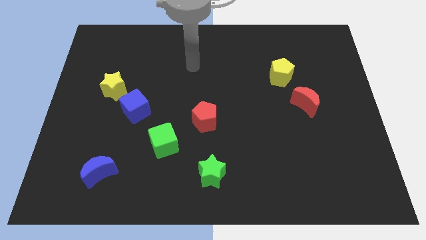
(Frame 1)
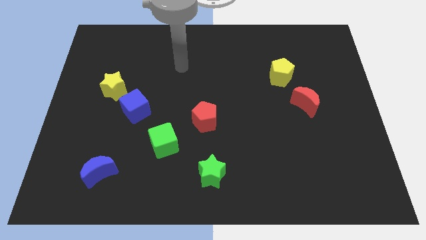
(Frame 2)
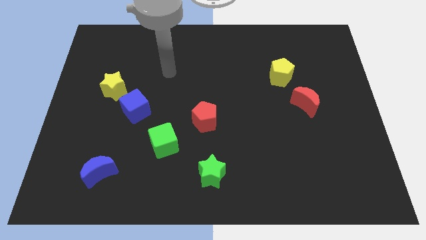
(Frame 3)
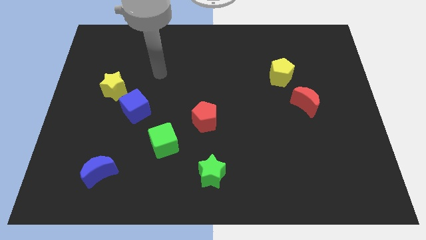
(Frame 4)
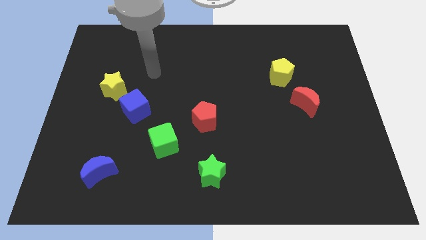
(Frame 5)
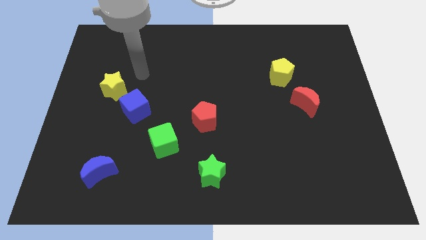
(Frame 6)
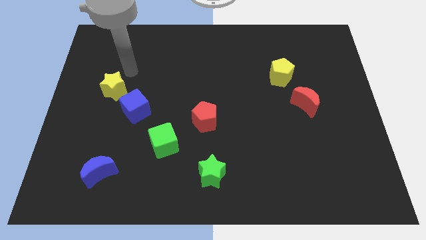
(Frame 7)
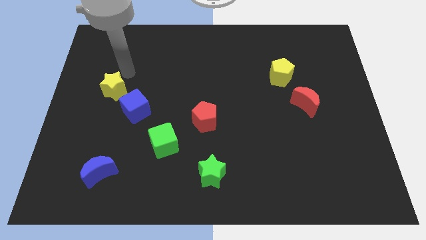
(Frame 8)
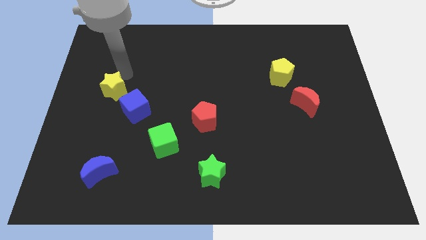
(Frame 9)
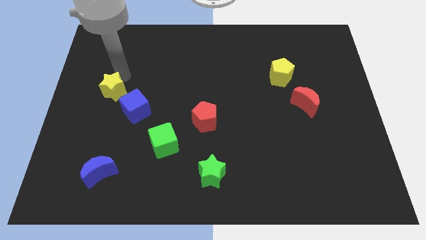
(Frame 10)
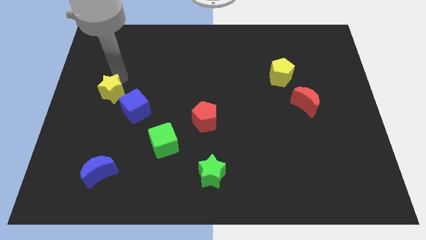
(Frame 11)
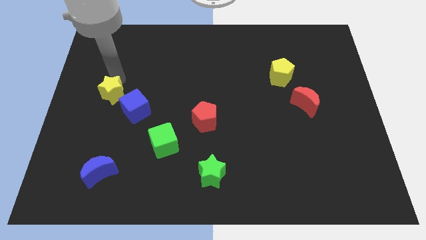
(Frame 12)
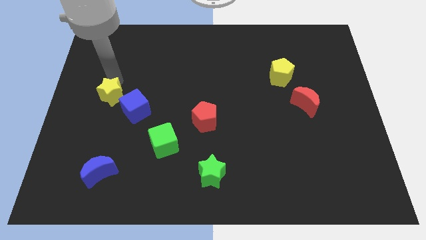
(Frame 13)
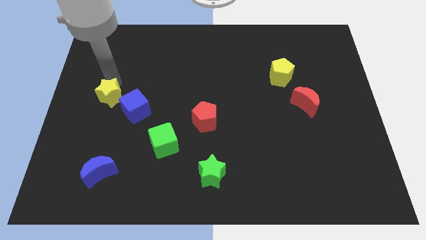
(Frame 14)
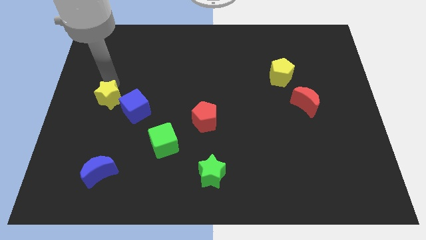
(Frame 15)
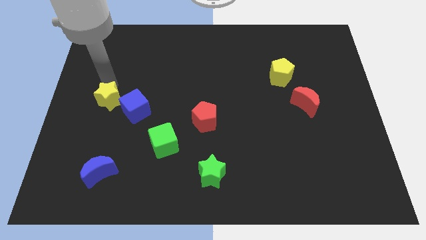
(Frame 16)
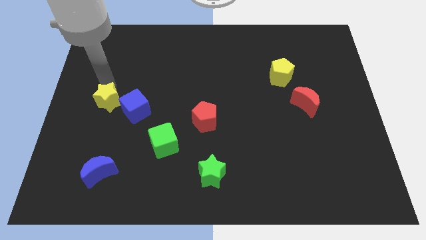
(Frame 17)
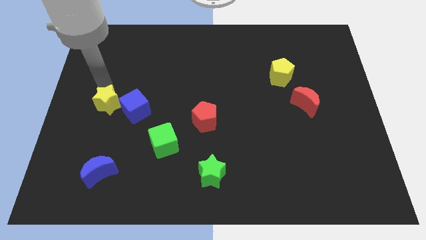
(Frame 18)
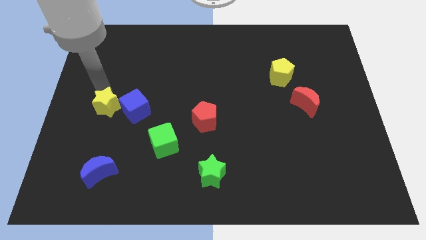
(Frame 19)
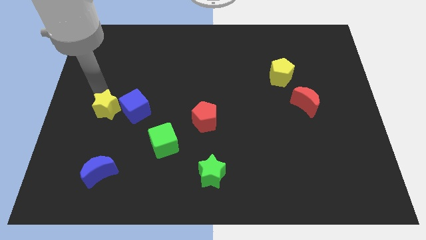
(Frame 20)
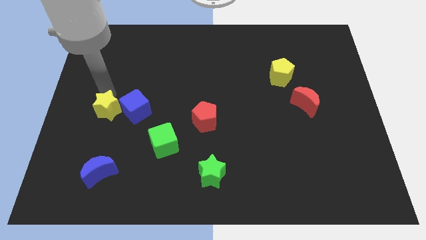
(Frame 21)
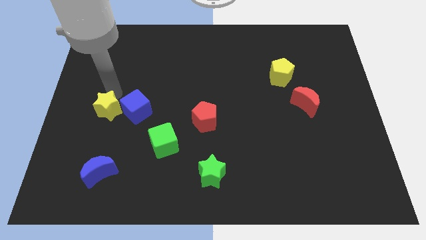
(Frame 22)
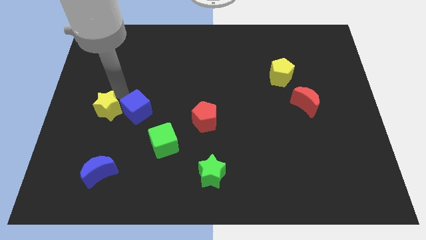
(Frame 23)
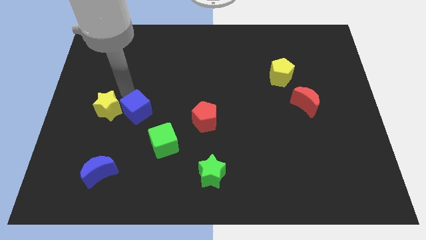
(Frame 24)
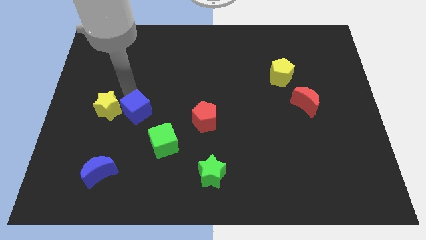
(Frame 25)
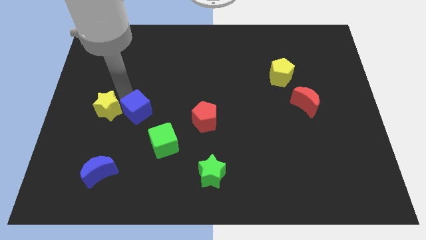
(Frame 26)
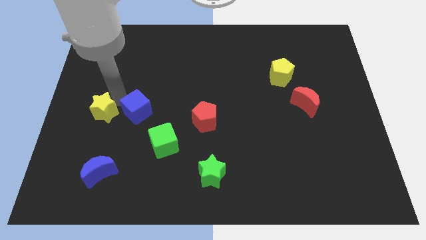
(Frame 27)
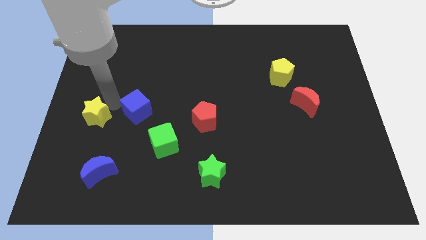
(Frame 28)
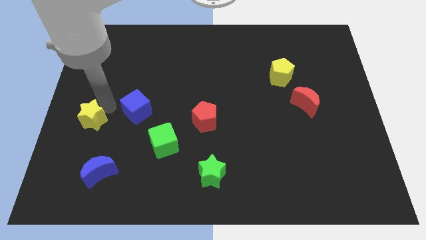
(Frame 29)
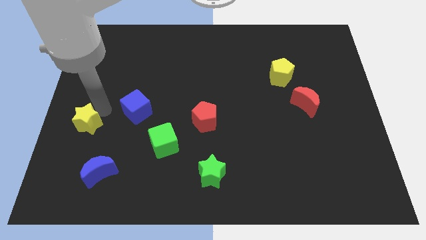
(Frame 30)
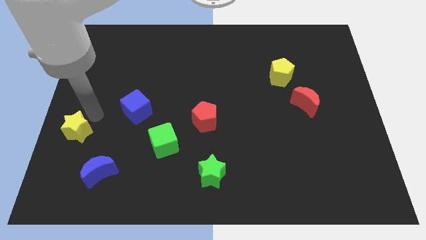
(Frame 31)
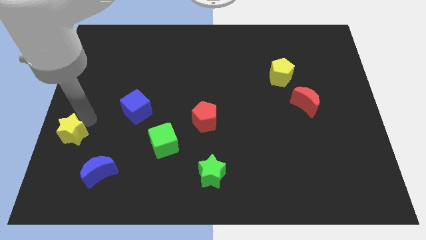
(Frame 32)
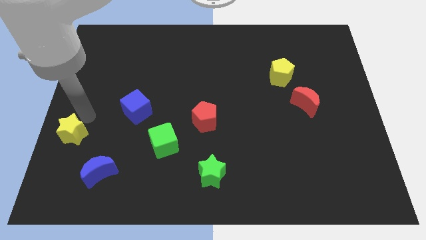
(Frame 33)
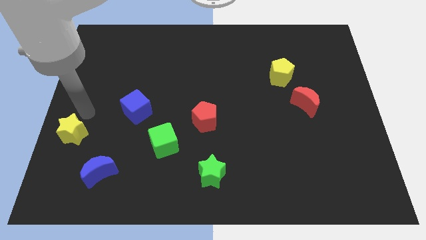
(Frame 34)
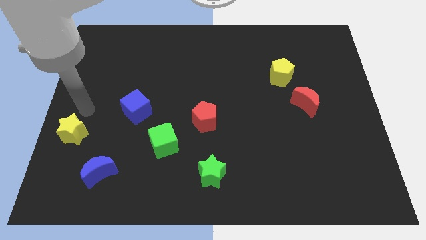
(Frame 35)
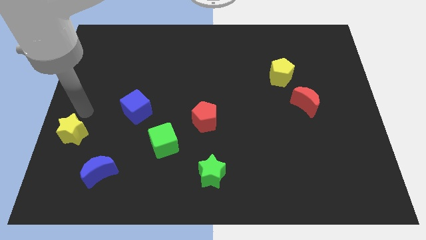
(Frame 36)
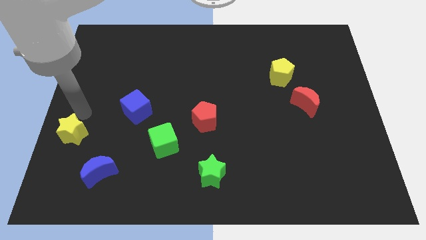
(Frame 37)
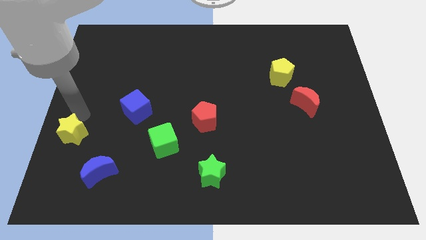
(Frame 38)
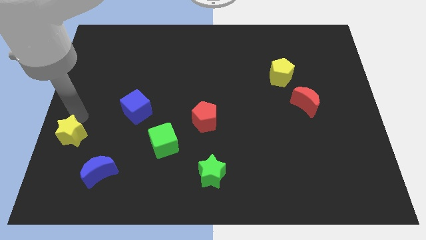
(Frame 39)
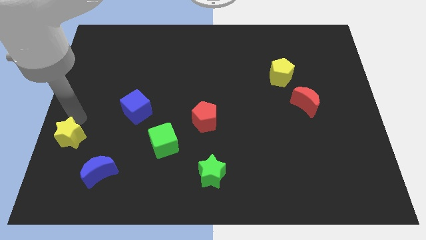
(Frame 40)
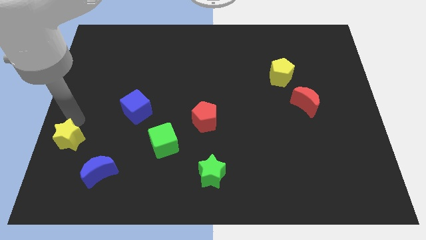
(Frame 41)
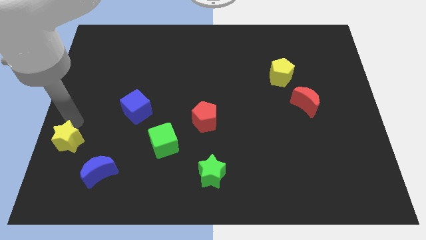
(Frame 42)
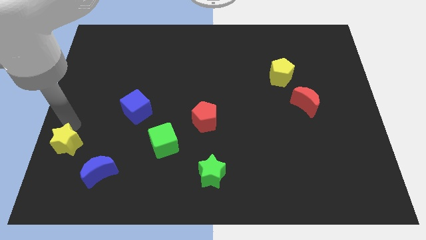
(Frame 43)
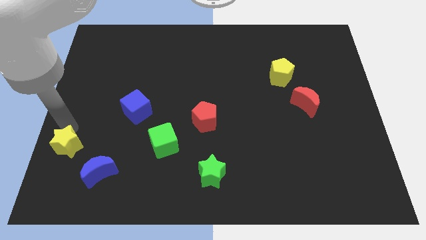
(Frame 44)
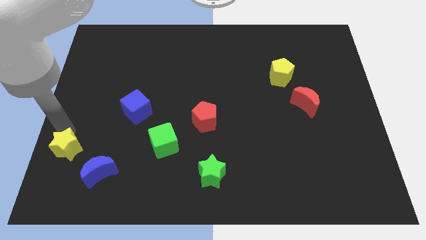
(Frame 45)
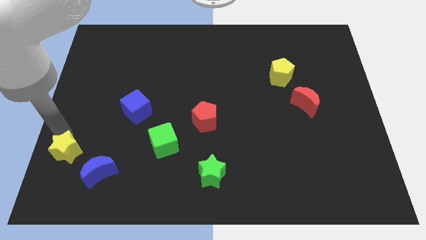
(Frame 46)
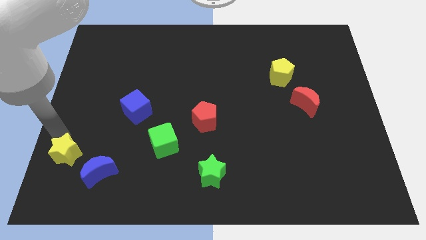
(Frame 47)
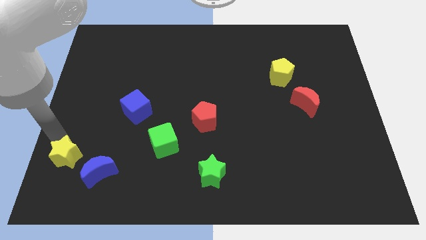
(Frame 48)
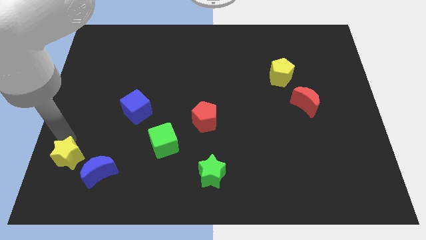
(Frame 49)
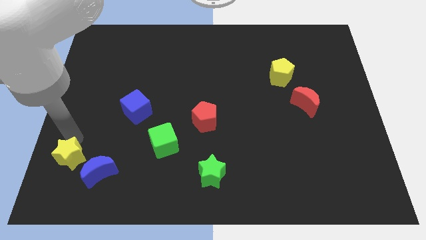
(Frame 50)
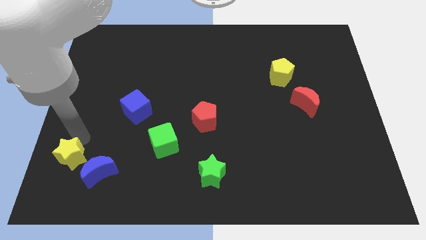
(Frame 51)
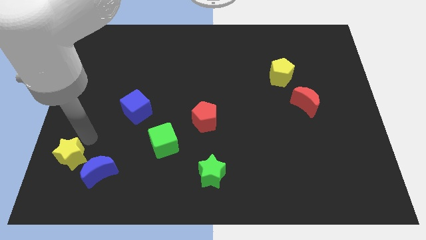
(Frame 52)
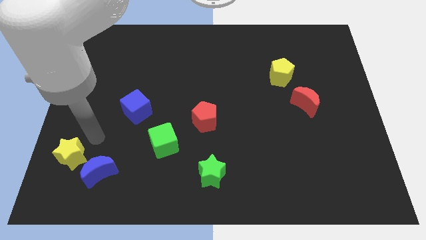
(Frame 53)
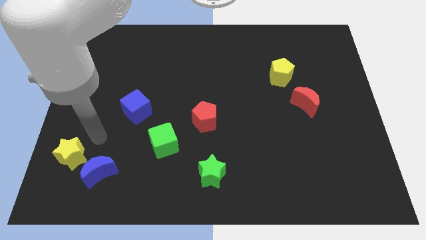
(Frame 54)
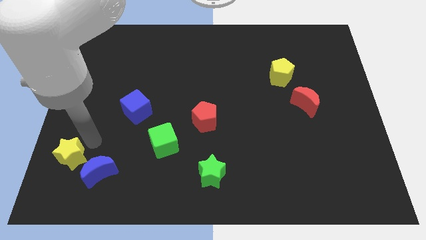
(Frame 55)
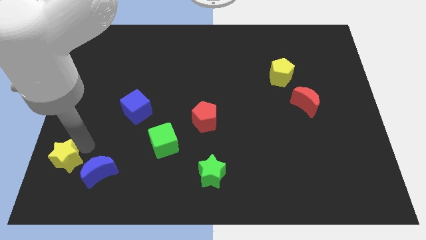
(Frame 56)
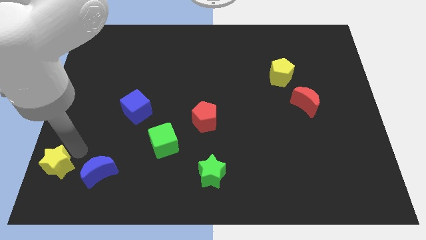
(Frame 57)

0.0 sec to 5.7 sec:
put the yellow star to the bottom left

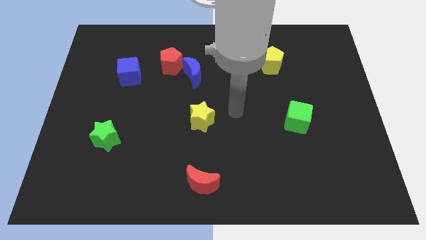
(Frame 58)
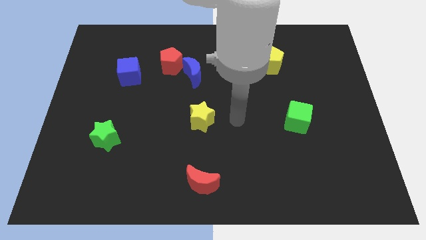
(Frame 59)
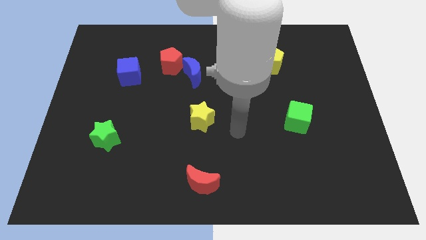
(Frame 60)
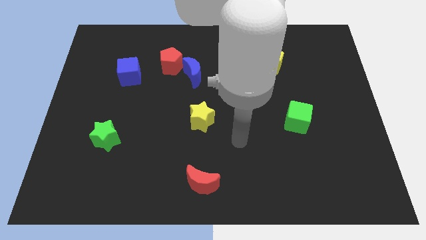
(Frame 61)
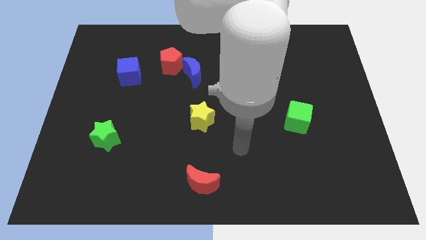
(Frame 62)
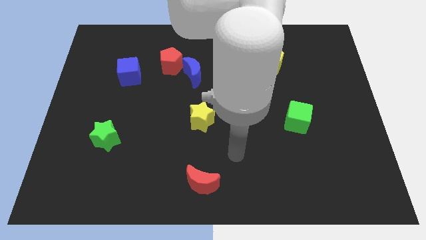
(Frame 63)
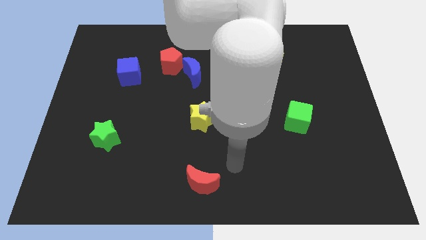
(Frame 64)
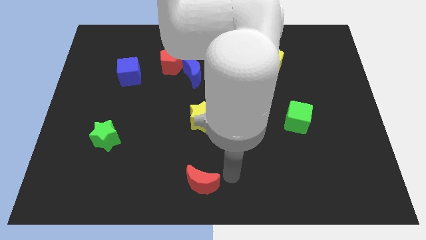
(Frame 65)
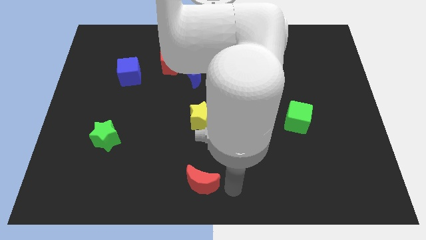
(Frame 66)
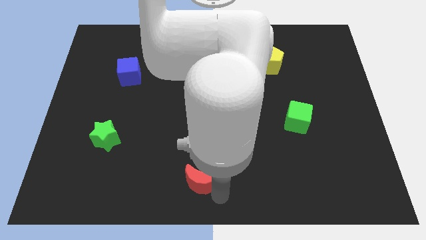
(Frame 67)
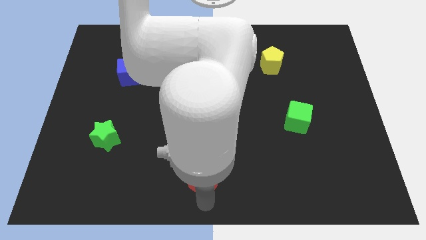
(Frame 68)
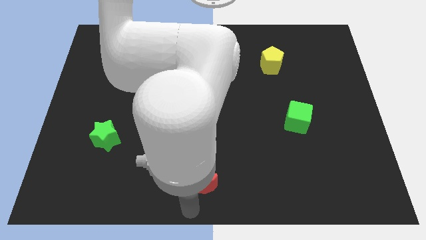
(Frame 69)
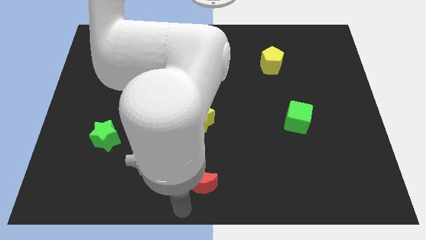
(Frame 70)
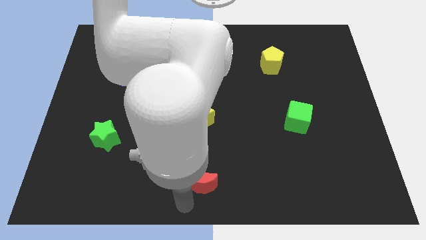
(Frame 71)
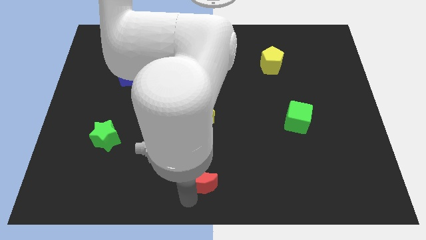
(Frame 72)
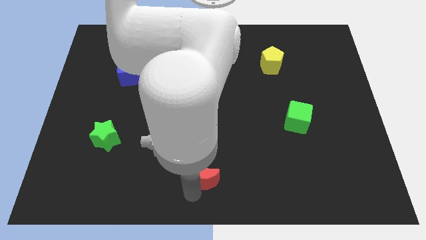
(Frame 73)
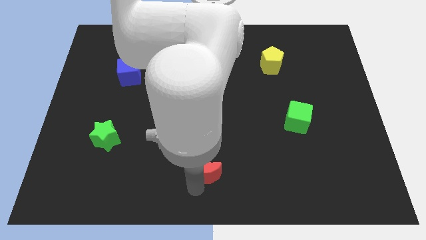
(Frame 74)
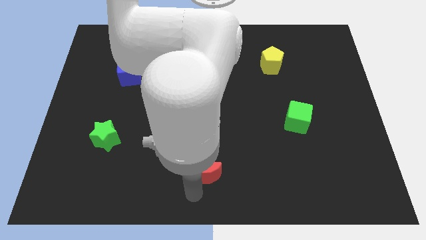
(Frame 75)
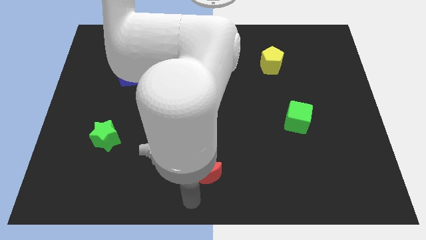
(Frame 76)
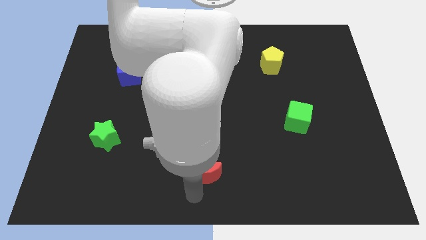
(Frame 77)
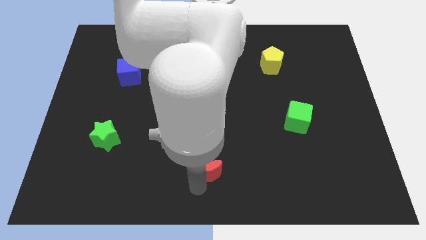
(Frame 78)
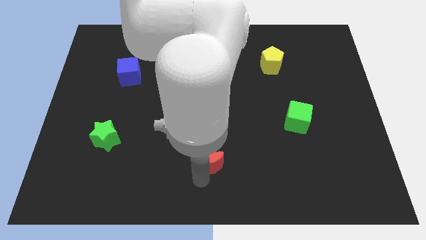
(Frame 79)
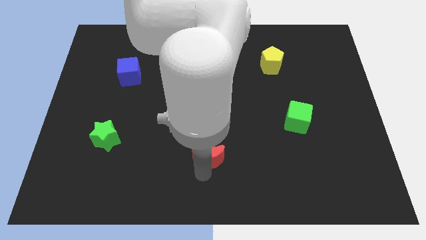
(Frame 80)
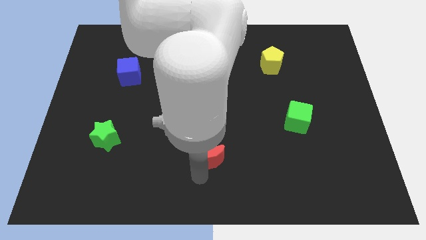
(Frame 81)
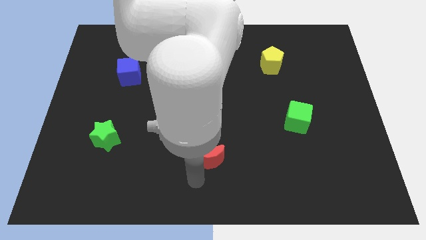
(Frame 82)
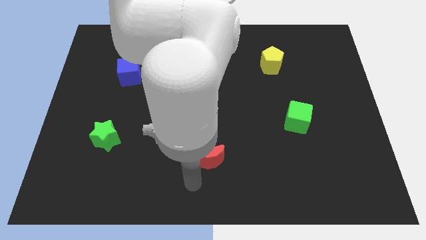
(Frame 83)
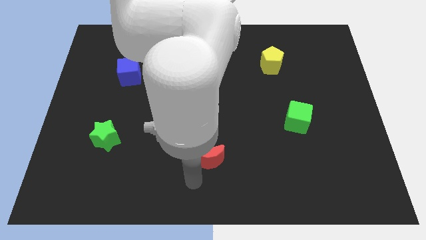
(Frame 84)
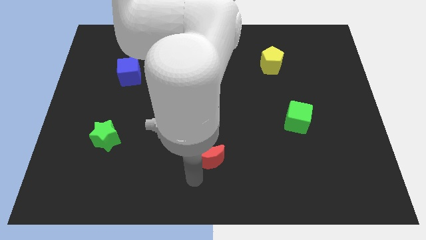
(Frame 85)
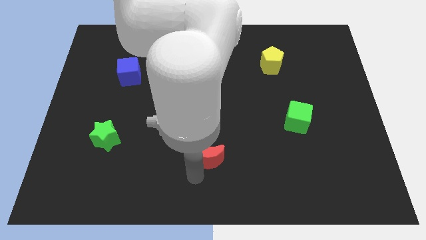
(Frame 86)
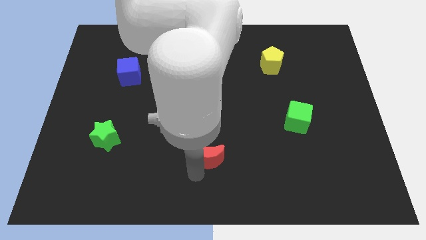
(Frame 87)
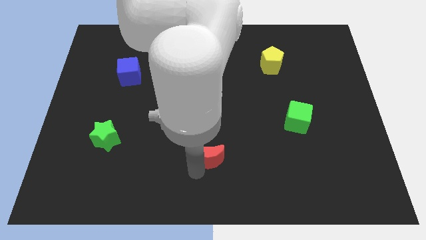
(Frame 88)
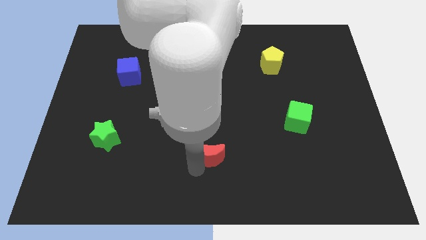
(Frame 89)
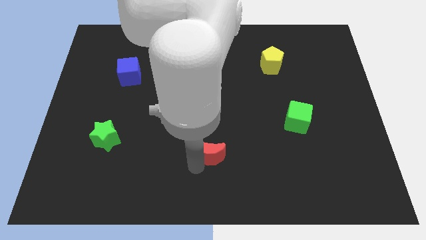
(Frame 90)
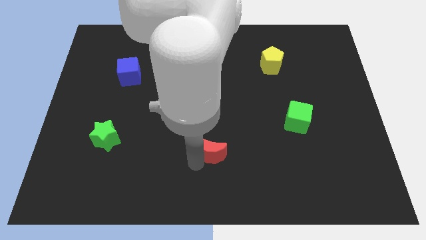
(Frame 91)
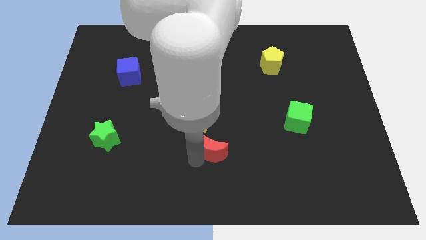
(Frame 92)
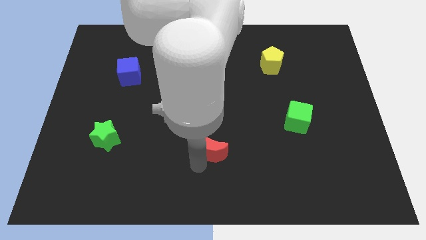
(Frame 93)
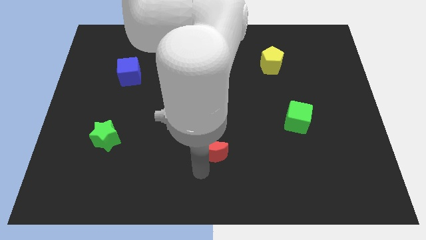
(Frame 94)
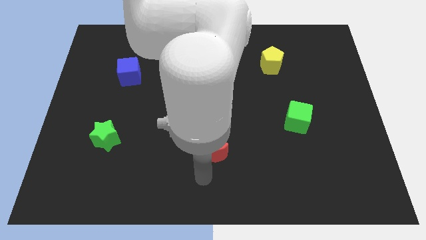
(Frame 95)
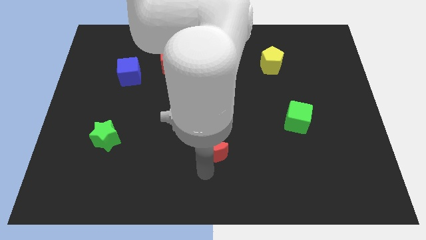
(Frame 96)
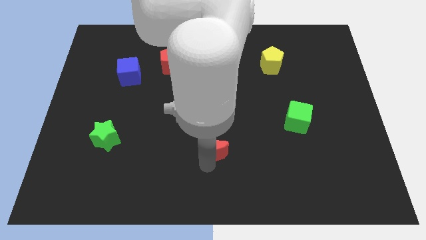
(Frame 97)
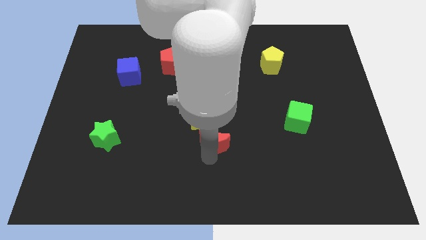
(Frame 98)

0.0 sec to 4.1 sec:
move the red moon to the middle
